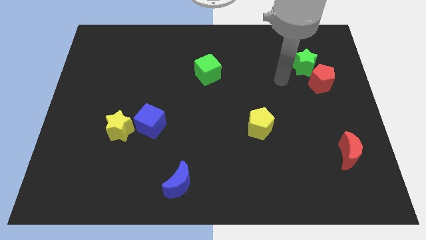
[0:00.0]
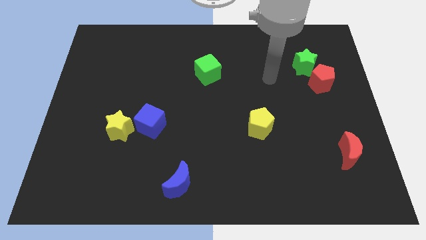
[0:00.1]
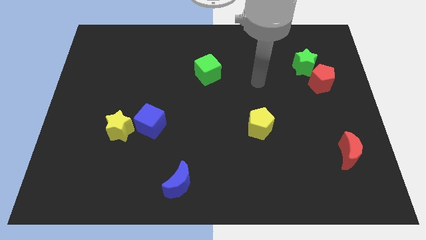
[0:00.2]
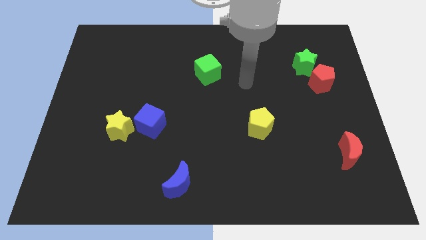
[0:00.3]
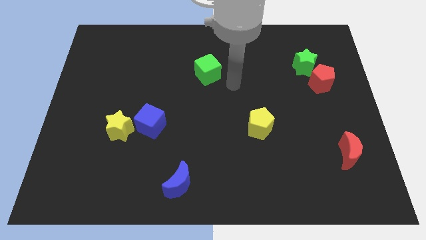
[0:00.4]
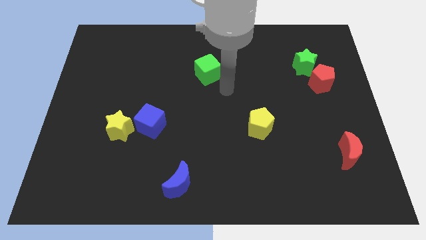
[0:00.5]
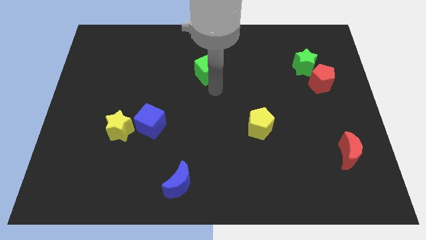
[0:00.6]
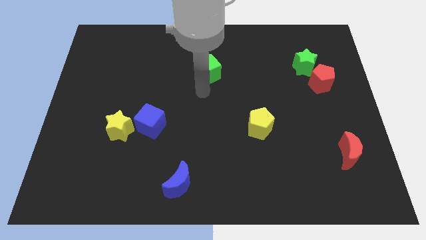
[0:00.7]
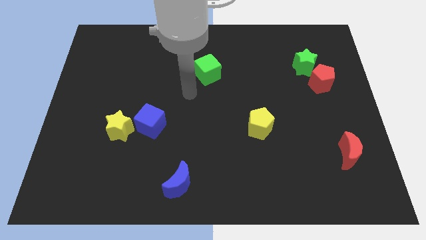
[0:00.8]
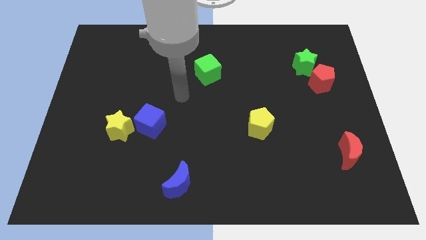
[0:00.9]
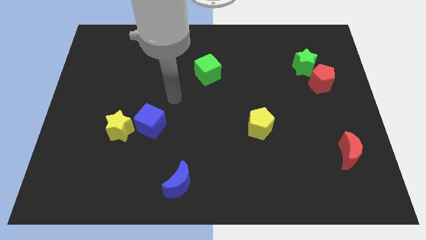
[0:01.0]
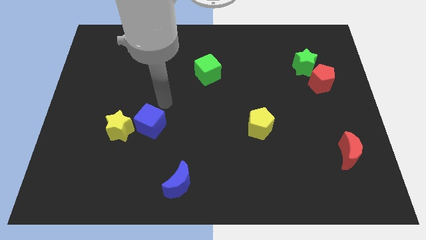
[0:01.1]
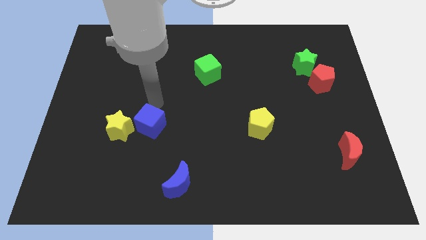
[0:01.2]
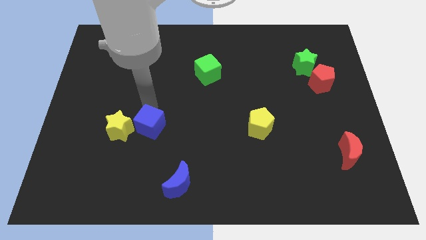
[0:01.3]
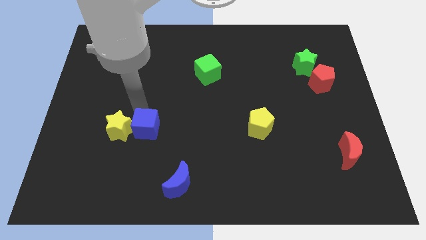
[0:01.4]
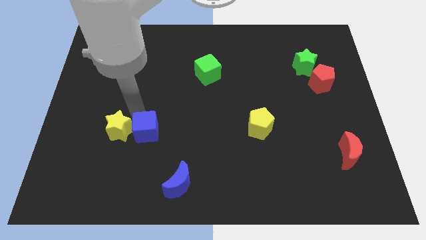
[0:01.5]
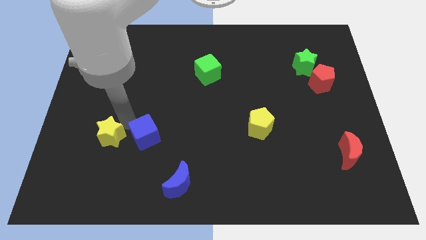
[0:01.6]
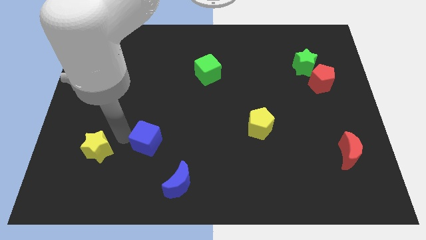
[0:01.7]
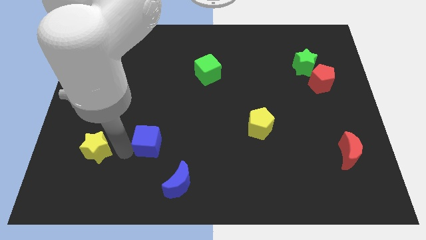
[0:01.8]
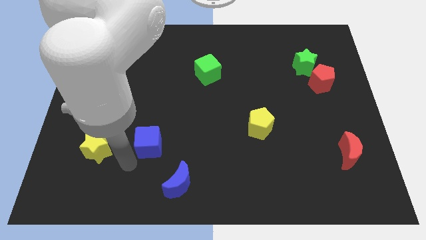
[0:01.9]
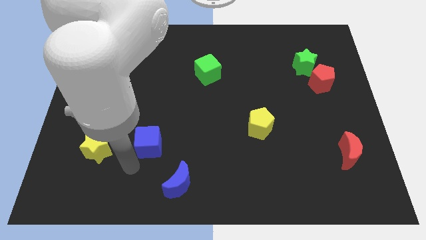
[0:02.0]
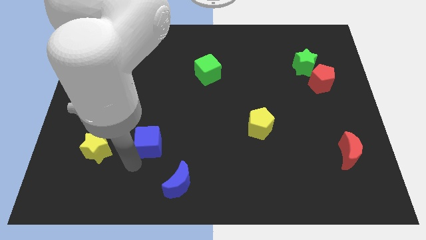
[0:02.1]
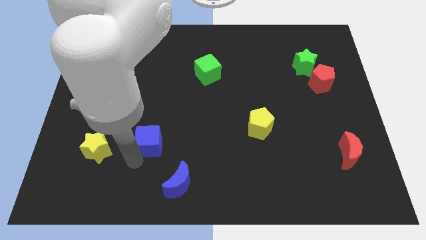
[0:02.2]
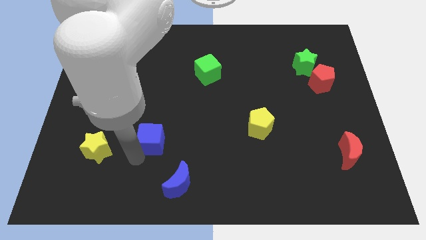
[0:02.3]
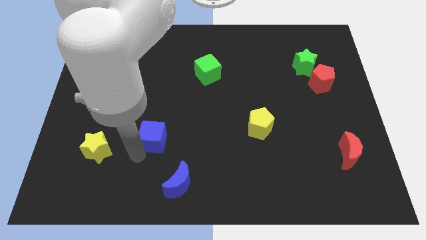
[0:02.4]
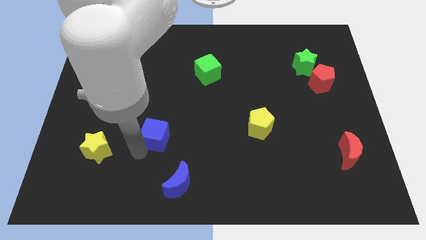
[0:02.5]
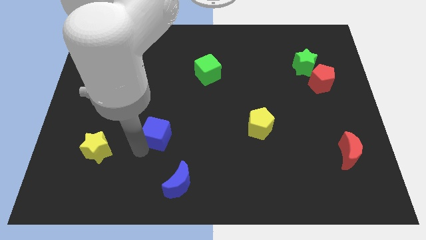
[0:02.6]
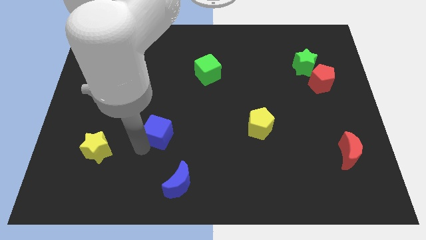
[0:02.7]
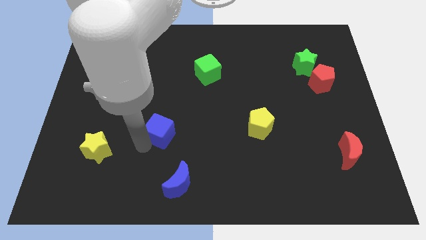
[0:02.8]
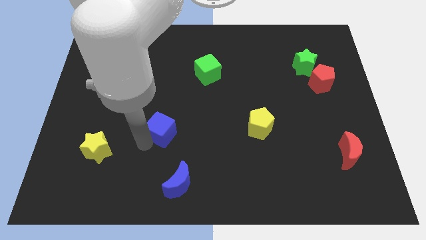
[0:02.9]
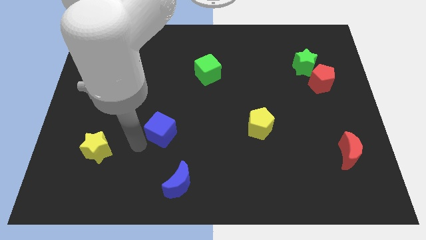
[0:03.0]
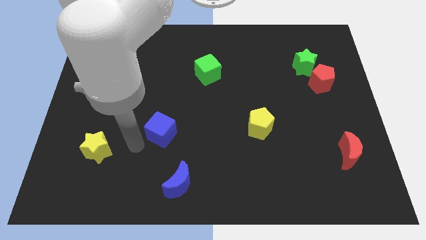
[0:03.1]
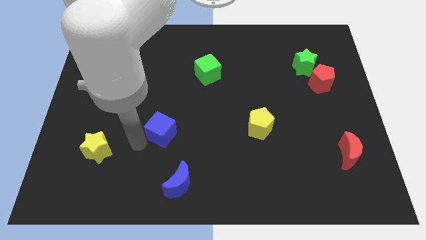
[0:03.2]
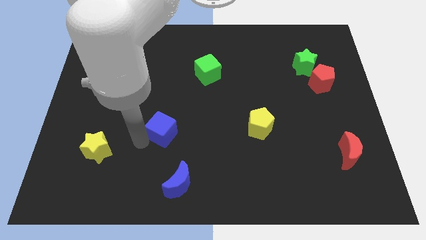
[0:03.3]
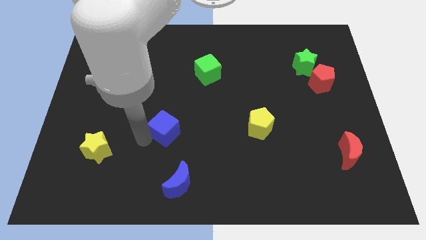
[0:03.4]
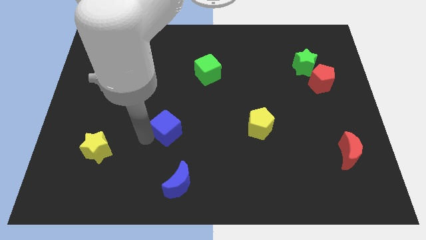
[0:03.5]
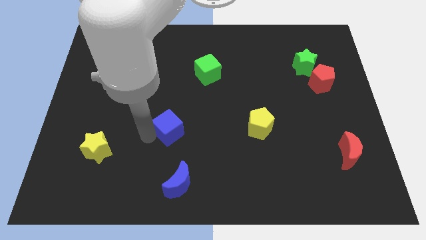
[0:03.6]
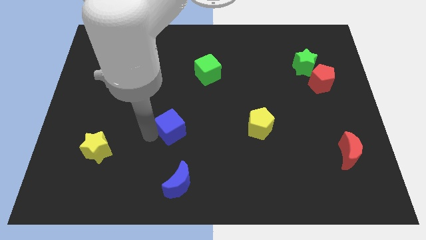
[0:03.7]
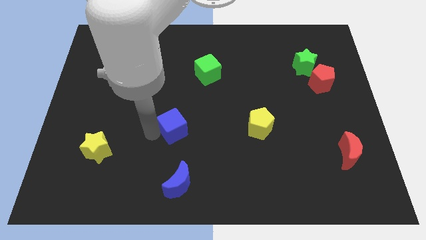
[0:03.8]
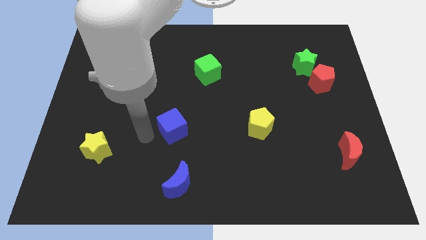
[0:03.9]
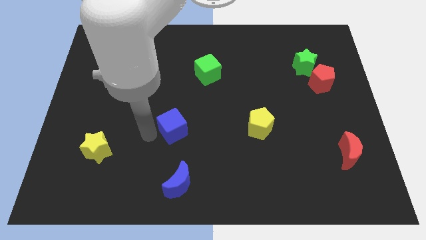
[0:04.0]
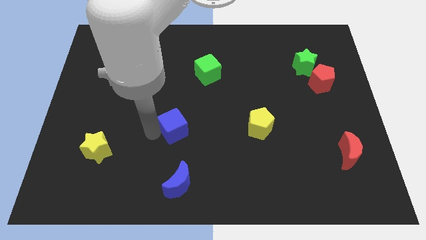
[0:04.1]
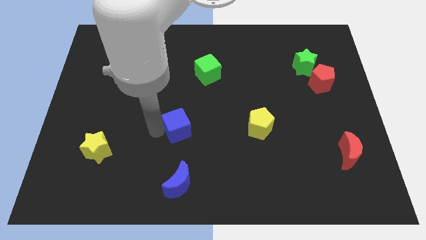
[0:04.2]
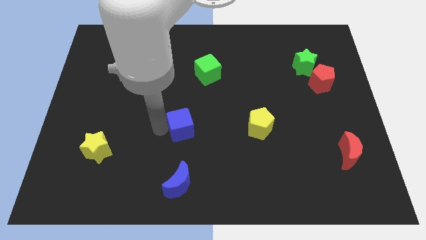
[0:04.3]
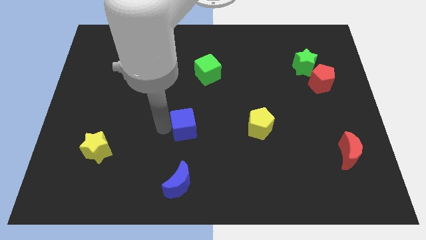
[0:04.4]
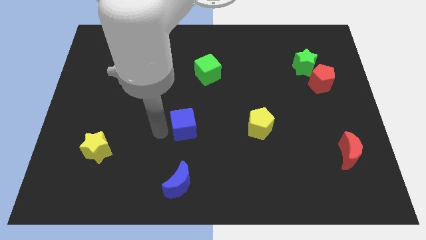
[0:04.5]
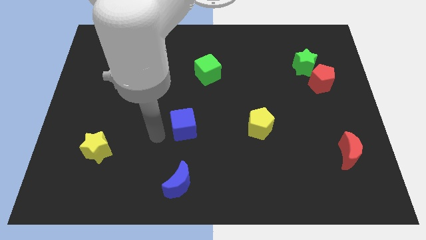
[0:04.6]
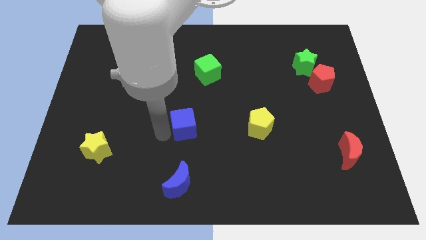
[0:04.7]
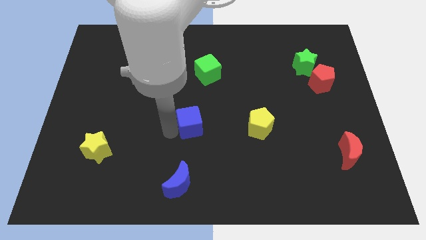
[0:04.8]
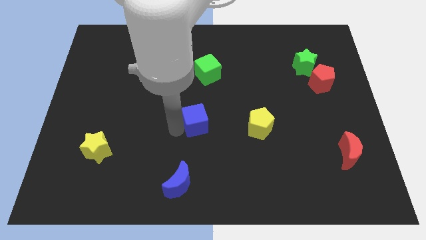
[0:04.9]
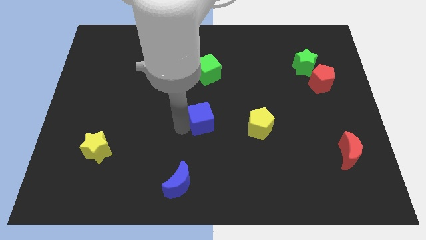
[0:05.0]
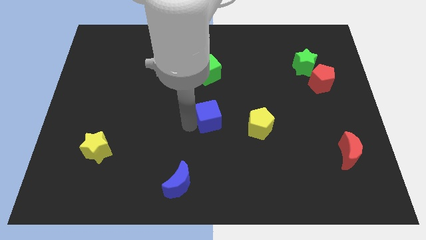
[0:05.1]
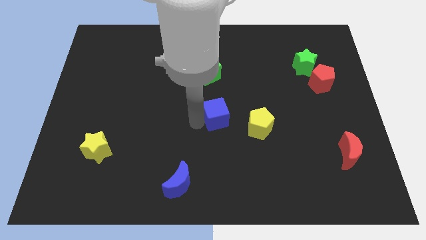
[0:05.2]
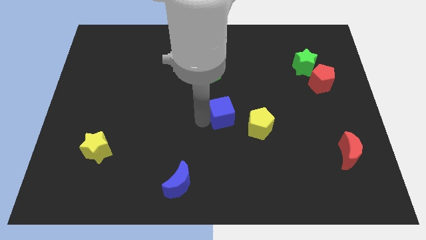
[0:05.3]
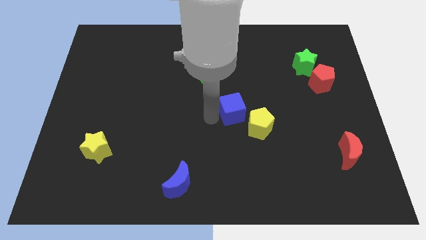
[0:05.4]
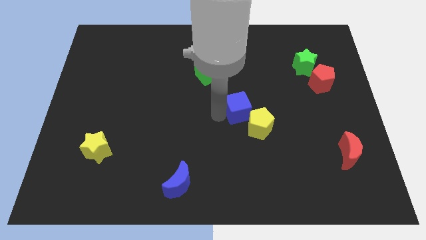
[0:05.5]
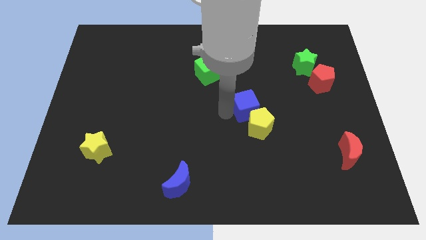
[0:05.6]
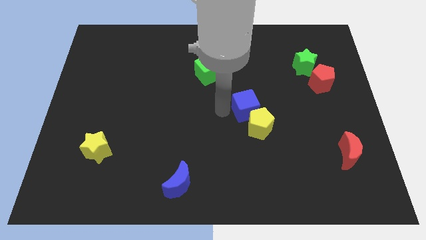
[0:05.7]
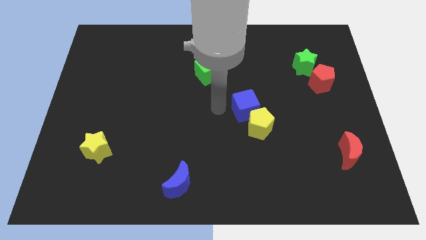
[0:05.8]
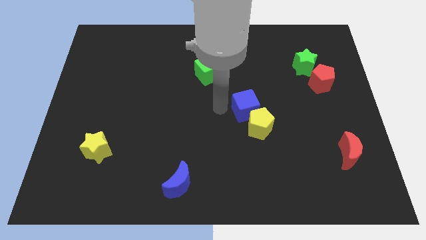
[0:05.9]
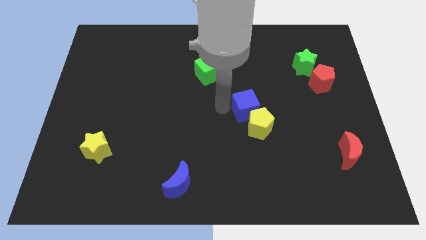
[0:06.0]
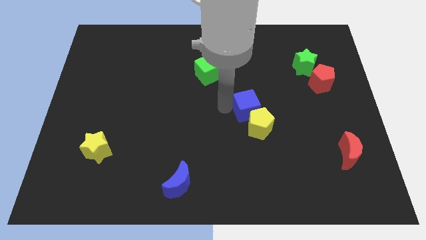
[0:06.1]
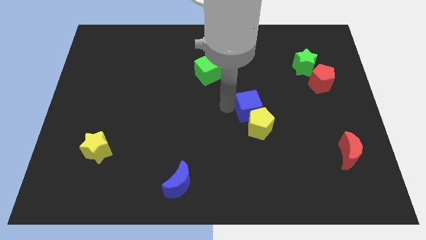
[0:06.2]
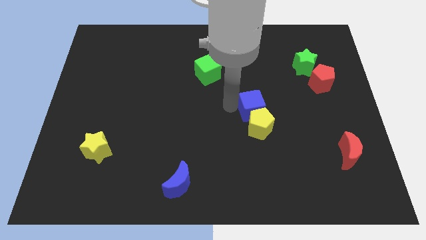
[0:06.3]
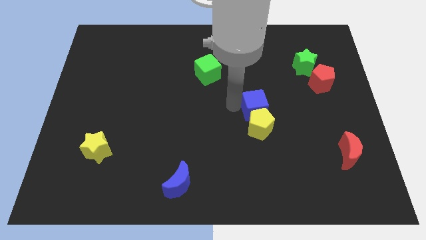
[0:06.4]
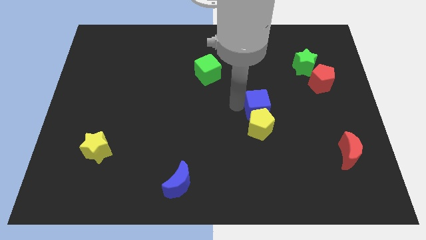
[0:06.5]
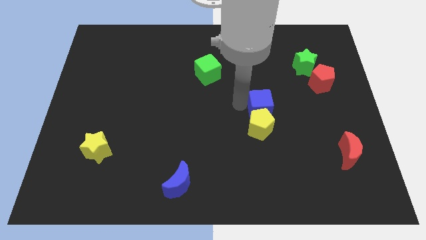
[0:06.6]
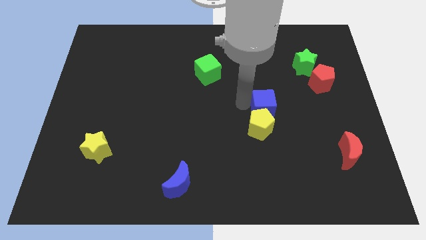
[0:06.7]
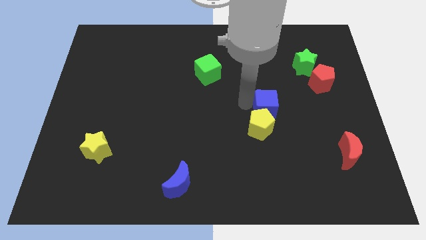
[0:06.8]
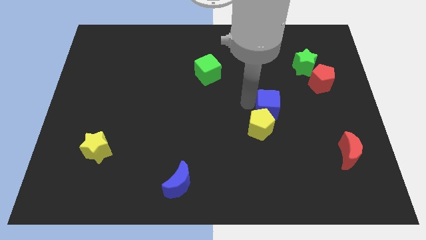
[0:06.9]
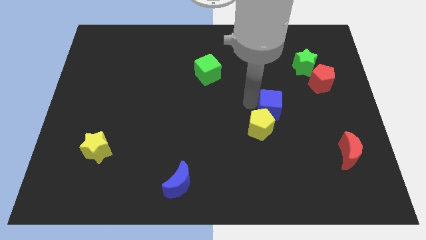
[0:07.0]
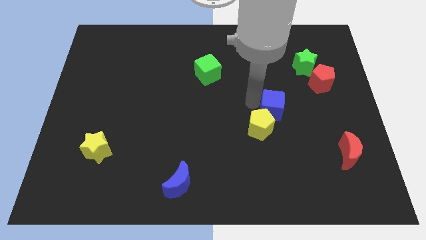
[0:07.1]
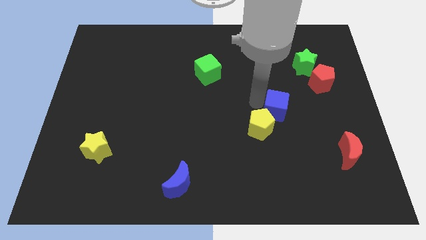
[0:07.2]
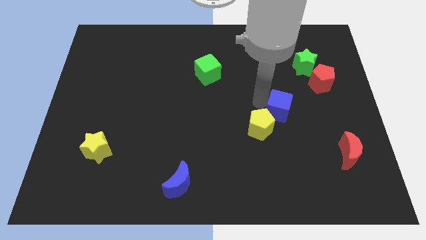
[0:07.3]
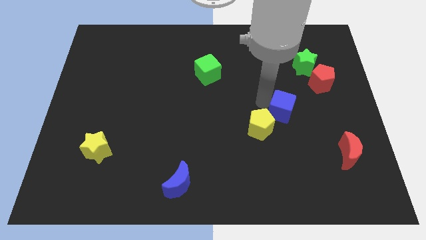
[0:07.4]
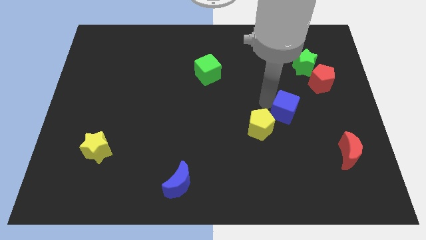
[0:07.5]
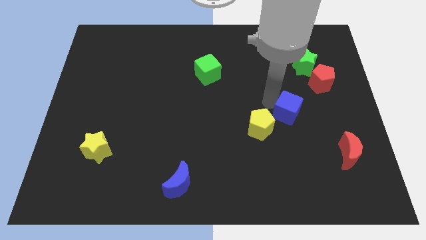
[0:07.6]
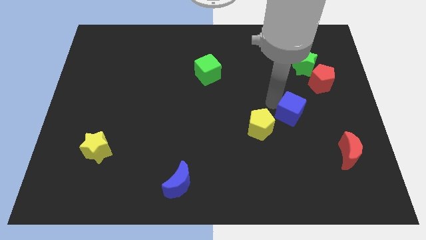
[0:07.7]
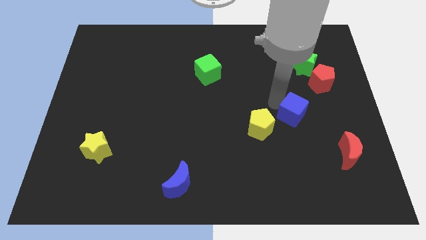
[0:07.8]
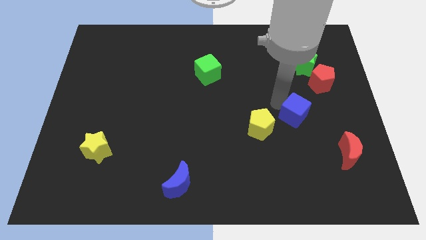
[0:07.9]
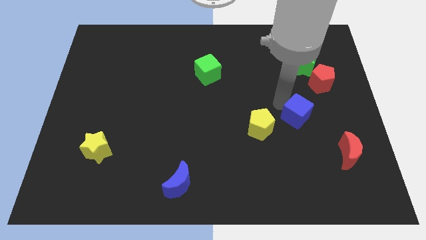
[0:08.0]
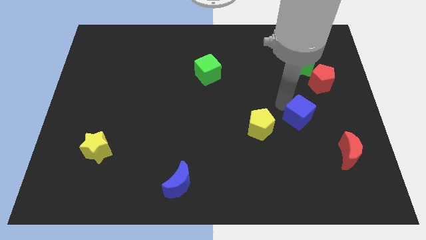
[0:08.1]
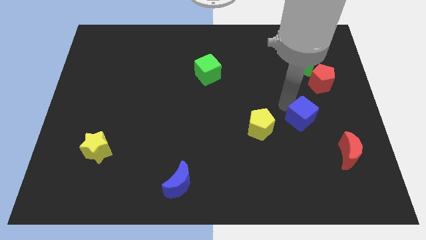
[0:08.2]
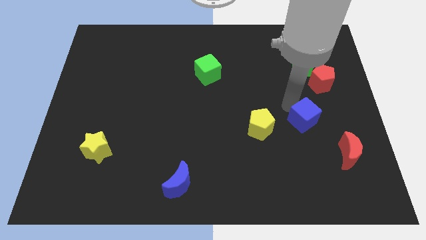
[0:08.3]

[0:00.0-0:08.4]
push the blue cube to the top left of the red moon
